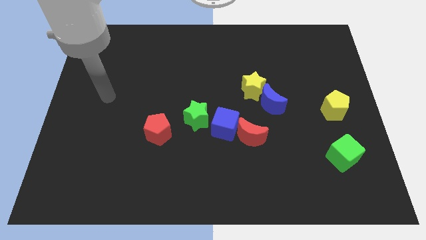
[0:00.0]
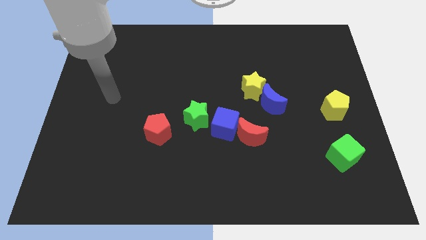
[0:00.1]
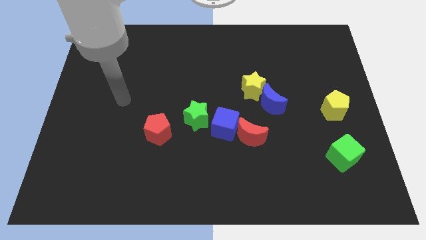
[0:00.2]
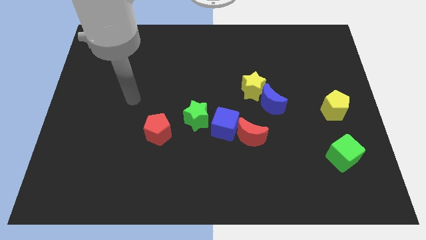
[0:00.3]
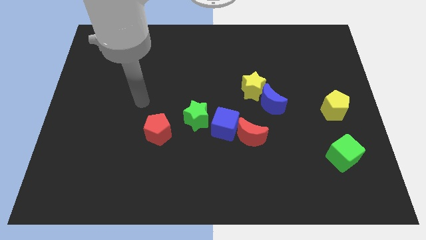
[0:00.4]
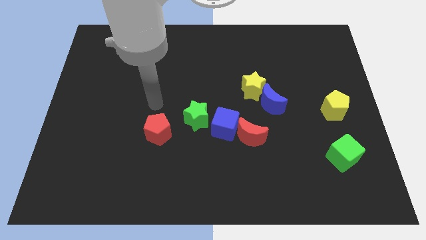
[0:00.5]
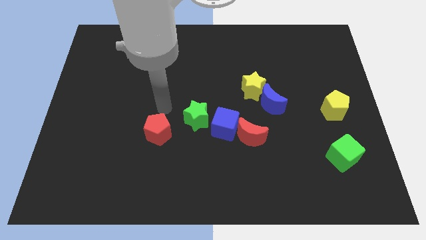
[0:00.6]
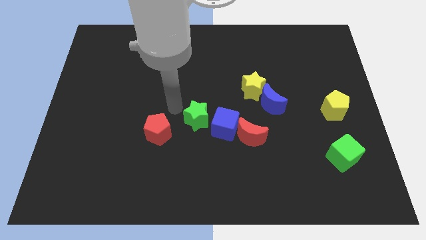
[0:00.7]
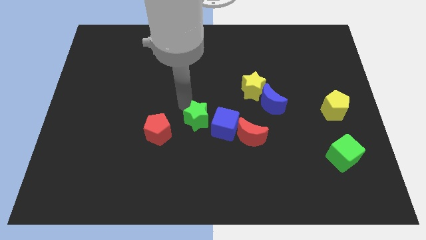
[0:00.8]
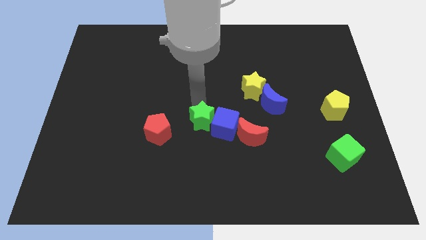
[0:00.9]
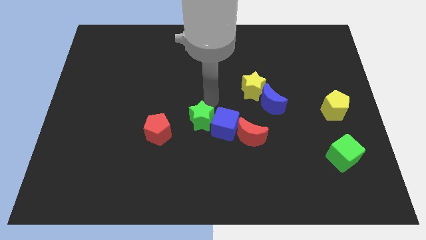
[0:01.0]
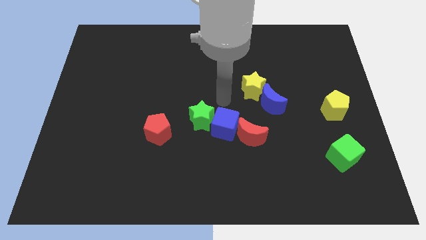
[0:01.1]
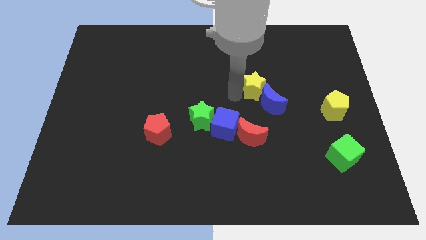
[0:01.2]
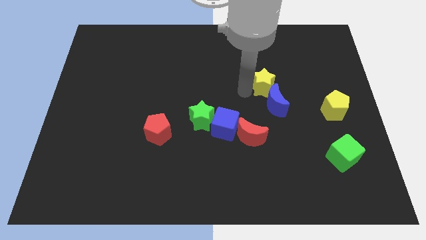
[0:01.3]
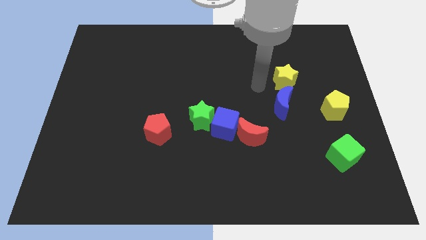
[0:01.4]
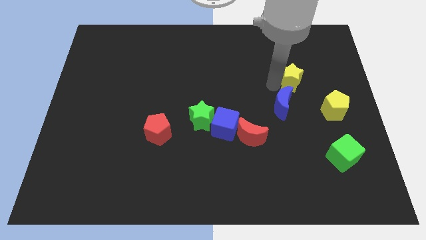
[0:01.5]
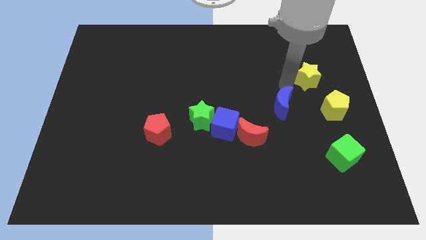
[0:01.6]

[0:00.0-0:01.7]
move the blue moon away from the yellow star

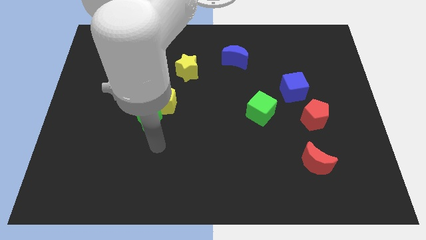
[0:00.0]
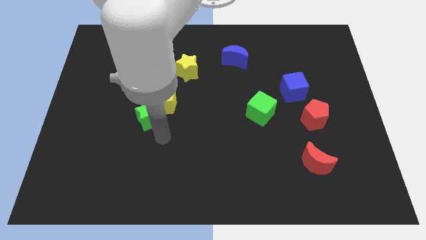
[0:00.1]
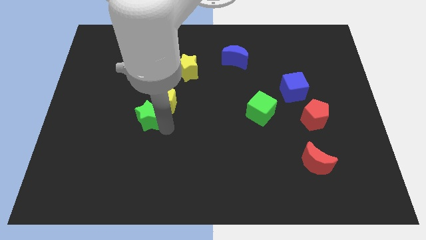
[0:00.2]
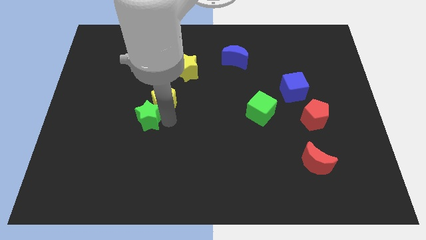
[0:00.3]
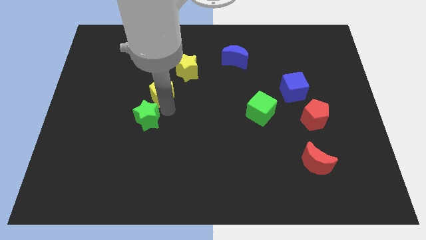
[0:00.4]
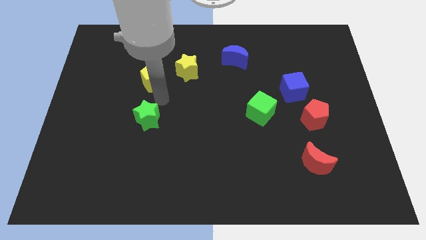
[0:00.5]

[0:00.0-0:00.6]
separate the green star from the yellow pentagon

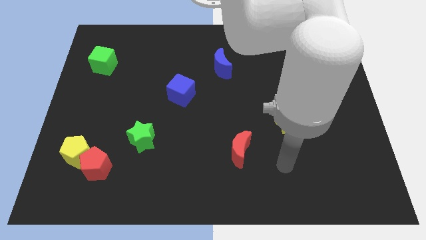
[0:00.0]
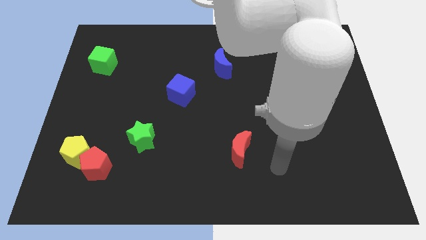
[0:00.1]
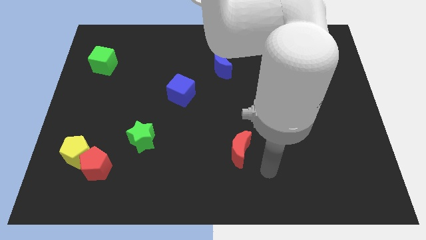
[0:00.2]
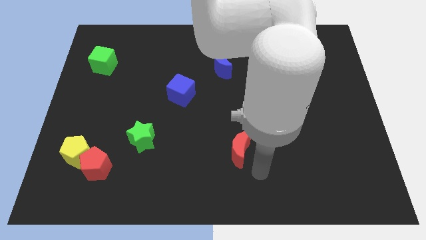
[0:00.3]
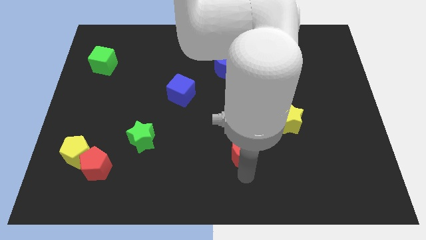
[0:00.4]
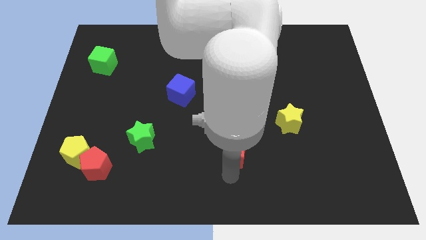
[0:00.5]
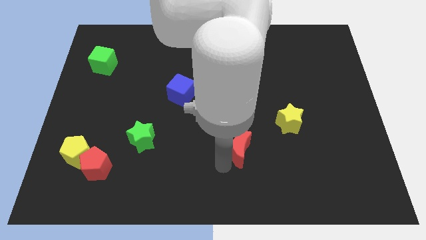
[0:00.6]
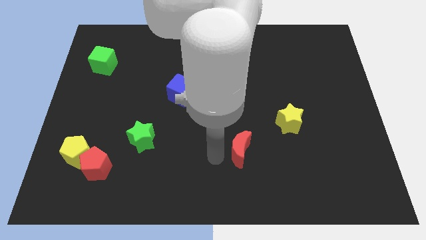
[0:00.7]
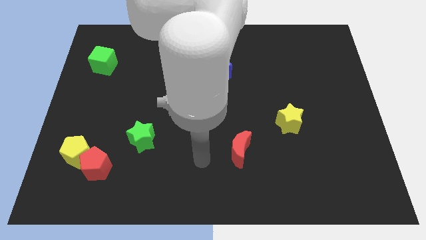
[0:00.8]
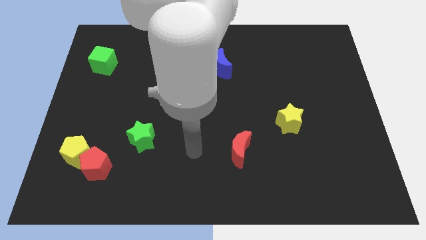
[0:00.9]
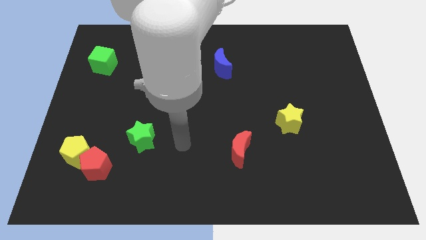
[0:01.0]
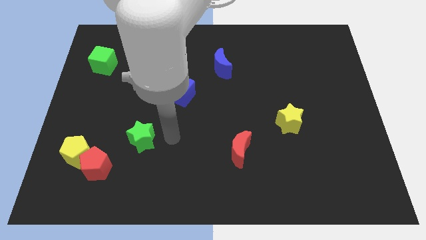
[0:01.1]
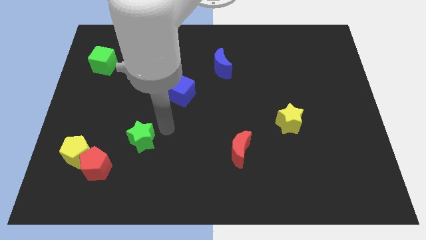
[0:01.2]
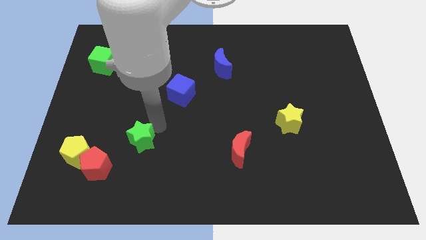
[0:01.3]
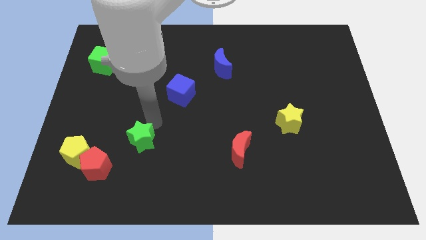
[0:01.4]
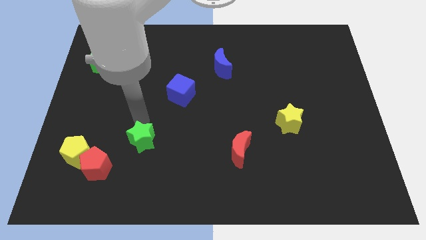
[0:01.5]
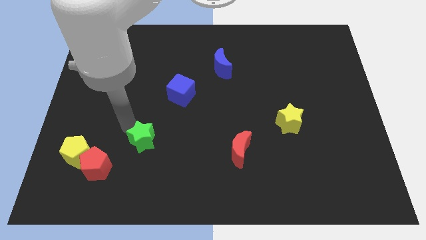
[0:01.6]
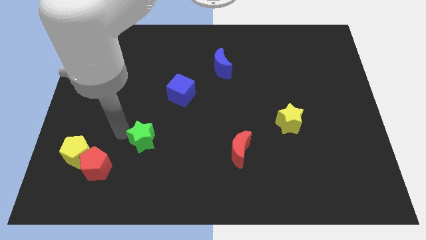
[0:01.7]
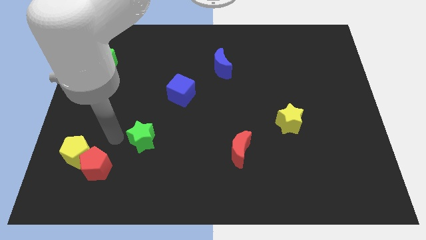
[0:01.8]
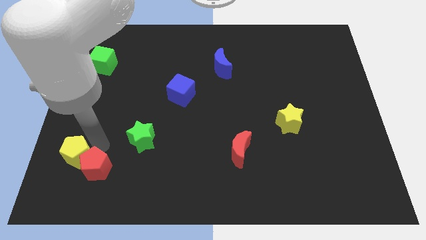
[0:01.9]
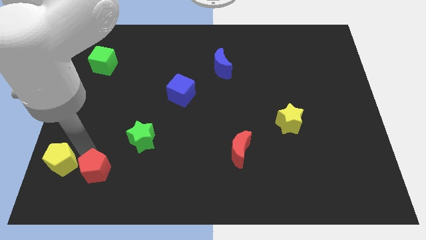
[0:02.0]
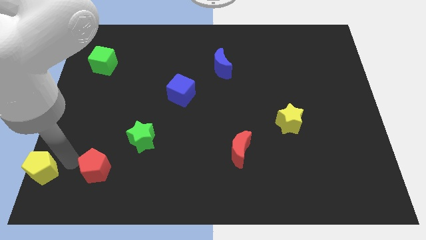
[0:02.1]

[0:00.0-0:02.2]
pull the red pentagon apart from the yellow pentagon

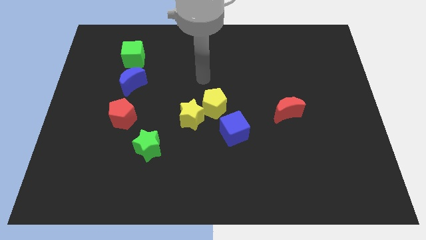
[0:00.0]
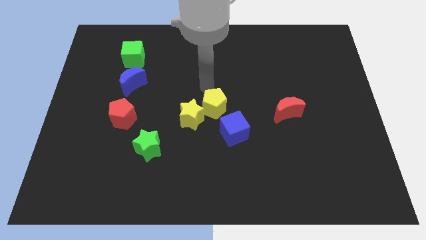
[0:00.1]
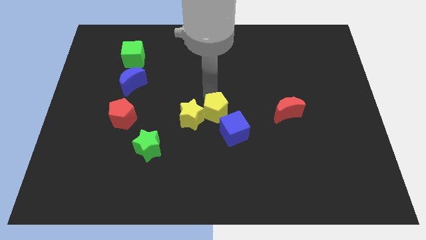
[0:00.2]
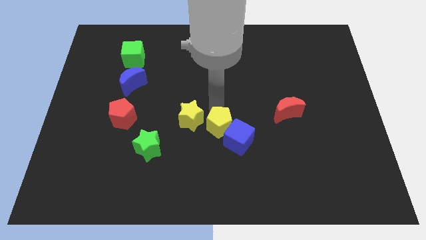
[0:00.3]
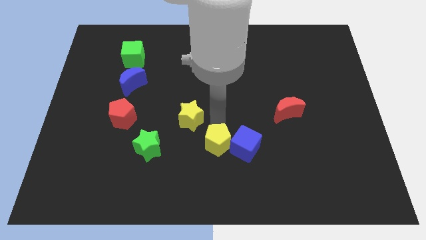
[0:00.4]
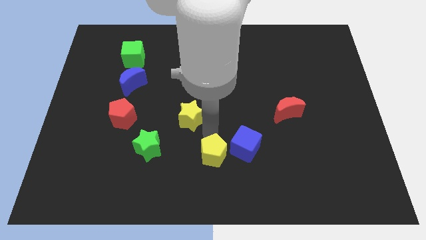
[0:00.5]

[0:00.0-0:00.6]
pull the yellow star apart from the yellow pentagon

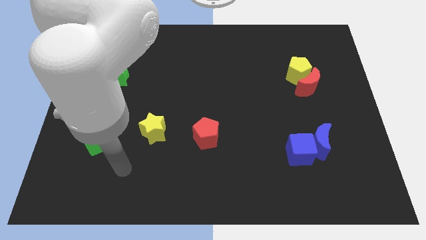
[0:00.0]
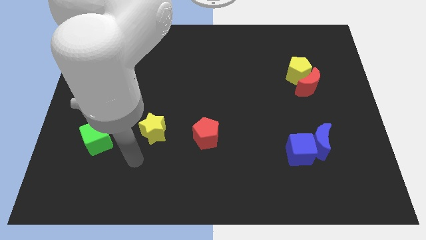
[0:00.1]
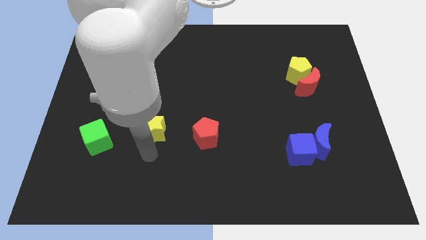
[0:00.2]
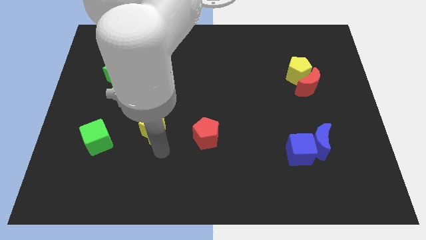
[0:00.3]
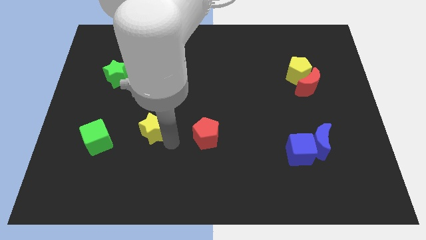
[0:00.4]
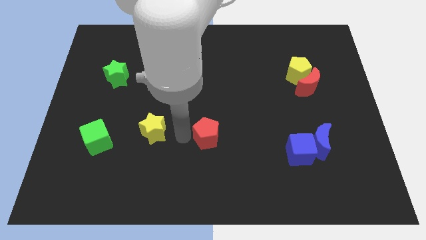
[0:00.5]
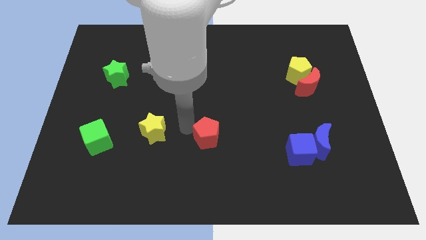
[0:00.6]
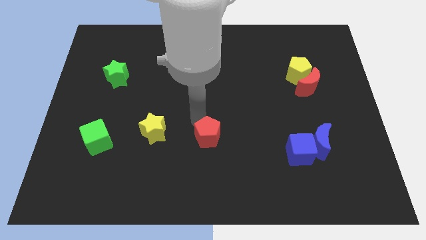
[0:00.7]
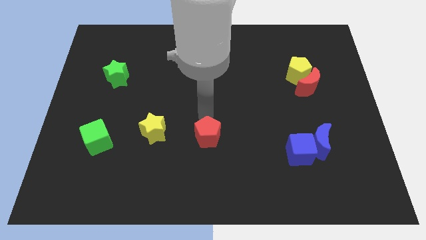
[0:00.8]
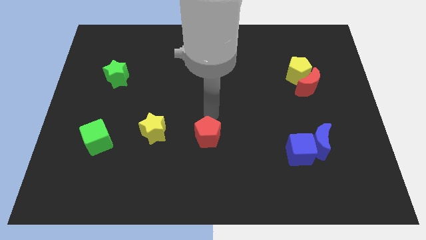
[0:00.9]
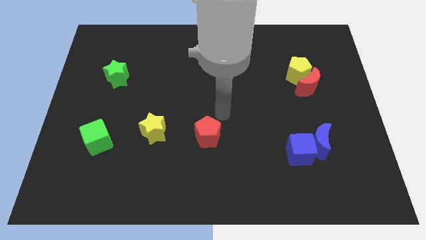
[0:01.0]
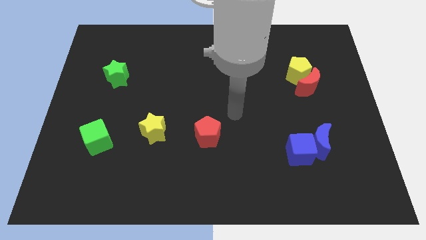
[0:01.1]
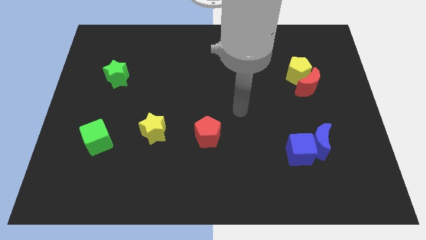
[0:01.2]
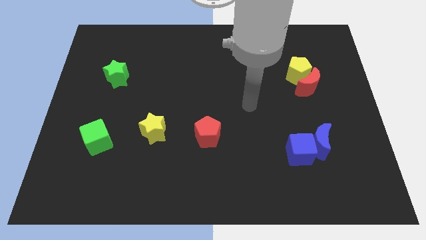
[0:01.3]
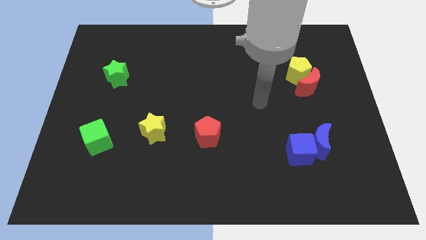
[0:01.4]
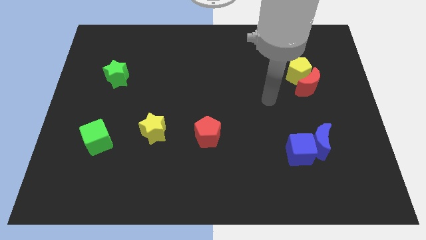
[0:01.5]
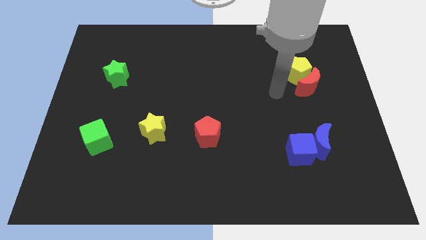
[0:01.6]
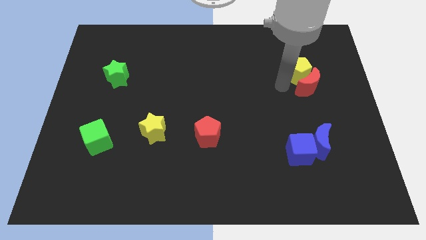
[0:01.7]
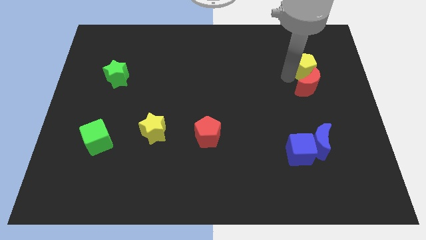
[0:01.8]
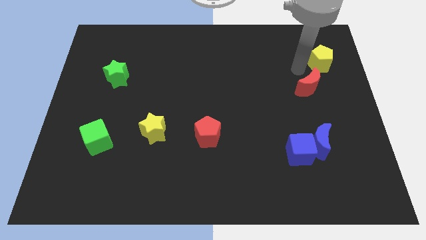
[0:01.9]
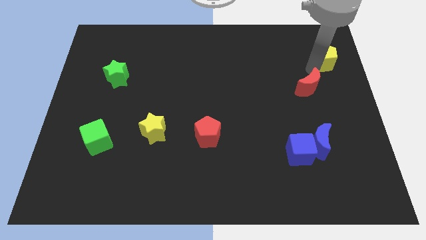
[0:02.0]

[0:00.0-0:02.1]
move the red moon away from the yellow pentagon

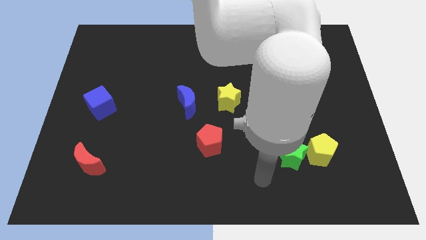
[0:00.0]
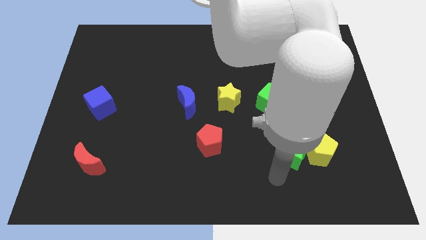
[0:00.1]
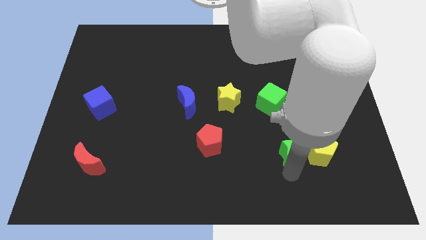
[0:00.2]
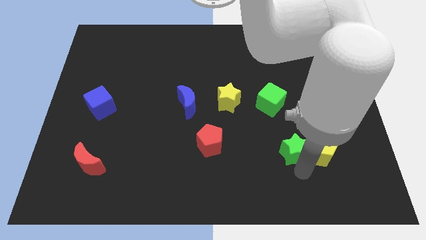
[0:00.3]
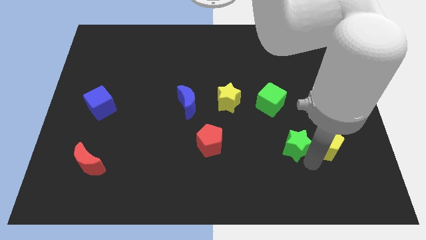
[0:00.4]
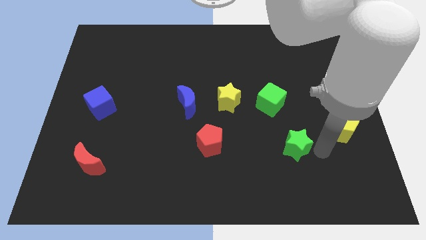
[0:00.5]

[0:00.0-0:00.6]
move the green star away from the yellow pentagon

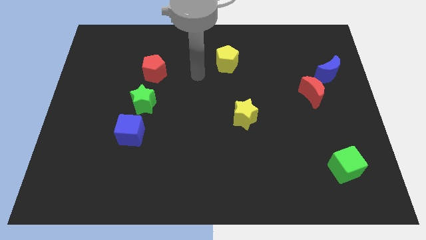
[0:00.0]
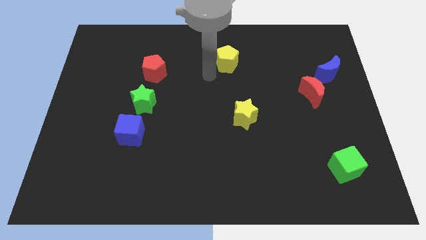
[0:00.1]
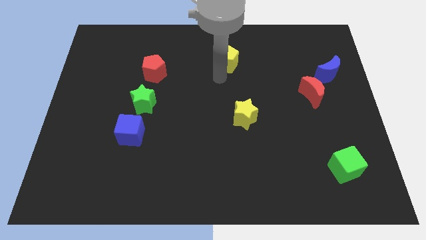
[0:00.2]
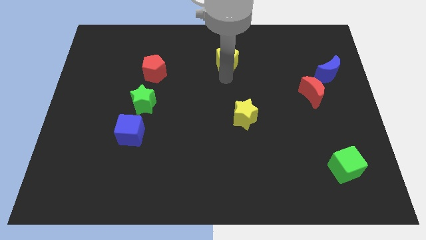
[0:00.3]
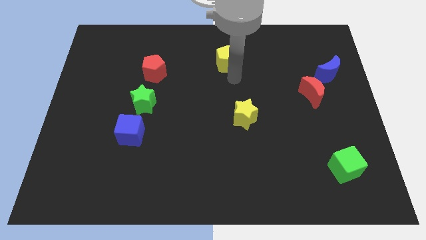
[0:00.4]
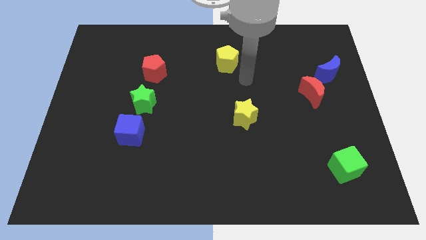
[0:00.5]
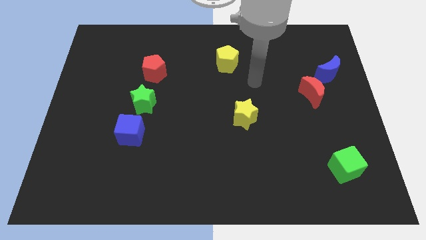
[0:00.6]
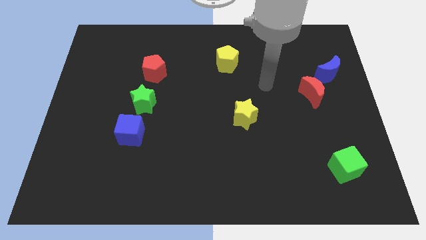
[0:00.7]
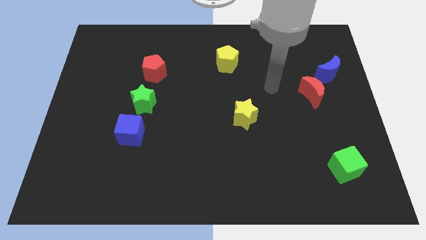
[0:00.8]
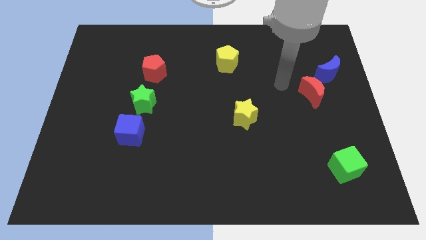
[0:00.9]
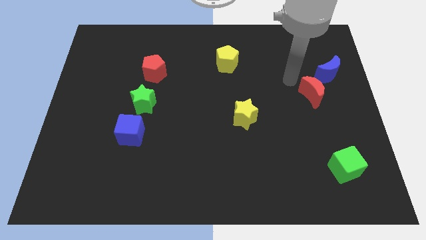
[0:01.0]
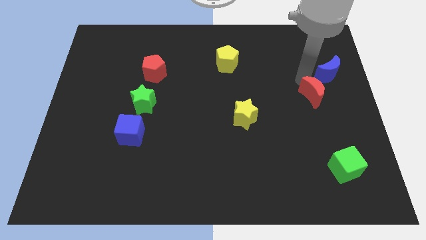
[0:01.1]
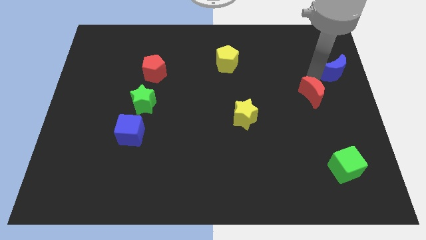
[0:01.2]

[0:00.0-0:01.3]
move the red moon away from the blue moon

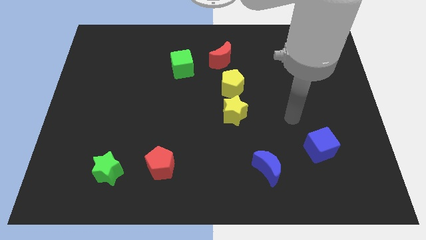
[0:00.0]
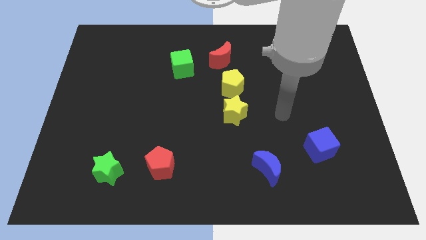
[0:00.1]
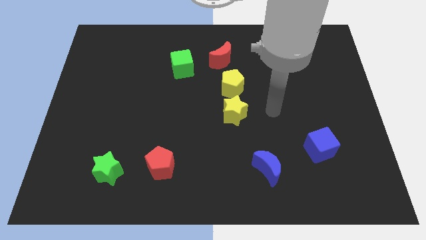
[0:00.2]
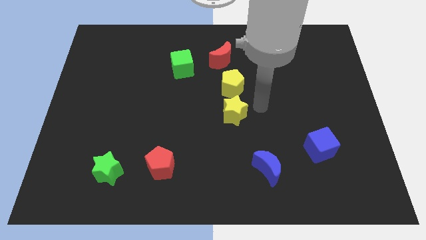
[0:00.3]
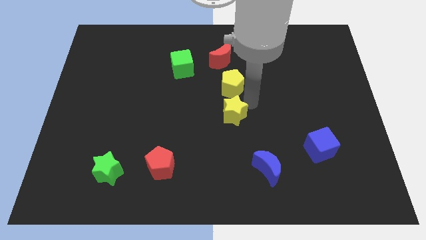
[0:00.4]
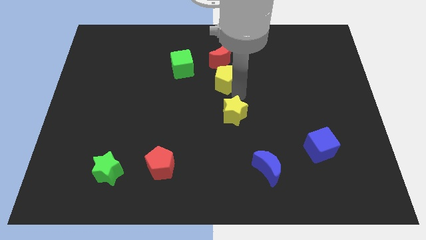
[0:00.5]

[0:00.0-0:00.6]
move the yellow star away from the yellow pentagon
